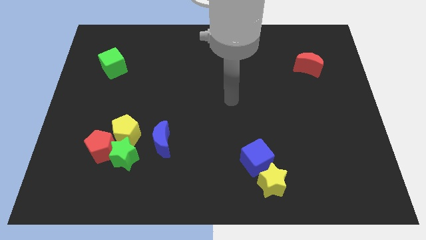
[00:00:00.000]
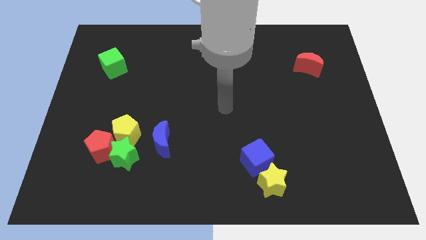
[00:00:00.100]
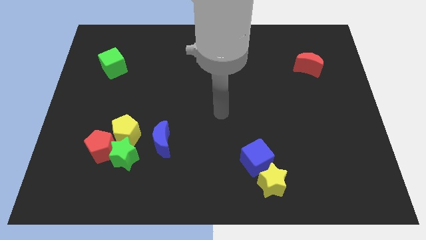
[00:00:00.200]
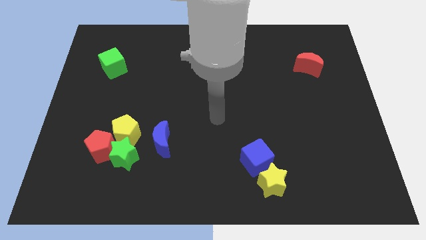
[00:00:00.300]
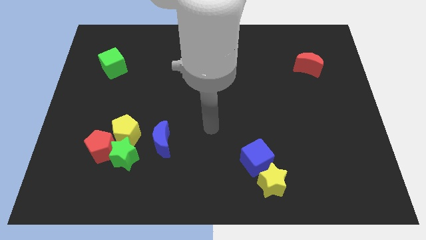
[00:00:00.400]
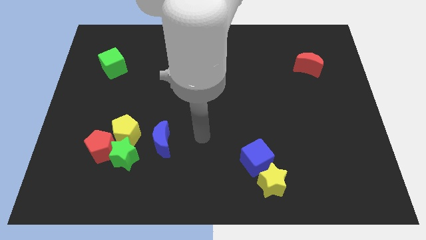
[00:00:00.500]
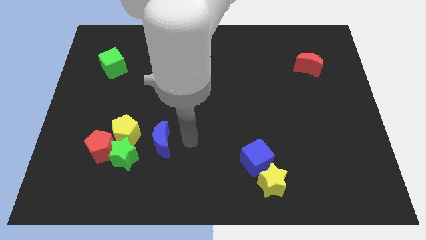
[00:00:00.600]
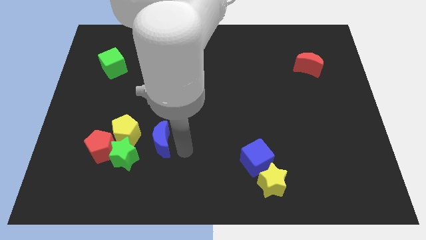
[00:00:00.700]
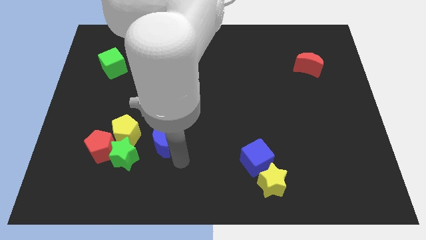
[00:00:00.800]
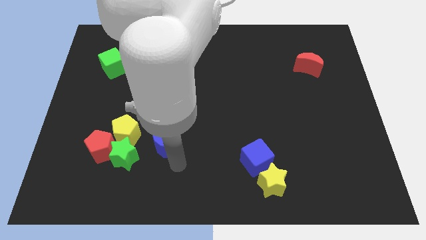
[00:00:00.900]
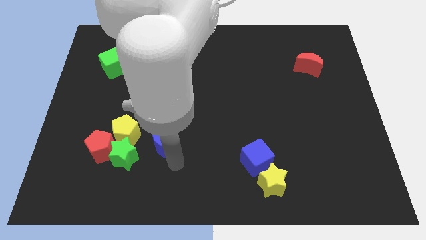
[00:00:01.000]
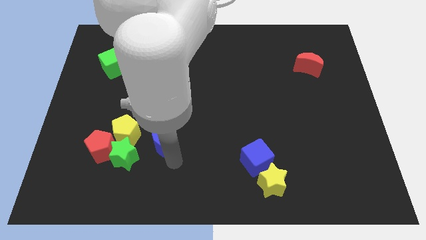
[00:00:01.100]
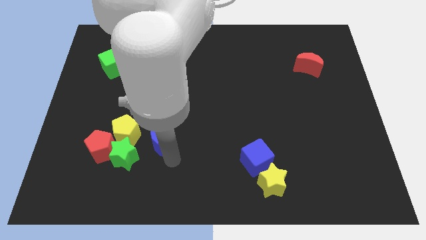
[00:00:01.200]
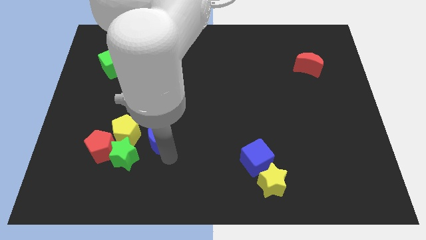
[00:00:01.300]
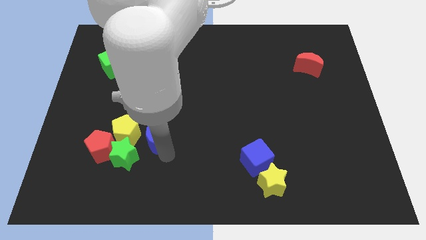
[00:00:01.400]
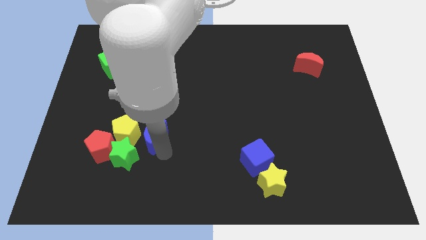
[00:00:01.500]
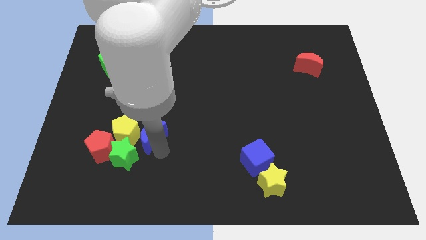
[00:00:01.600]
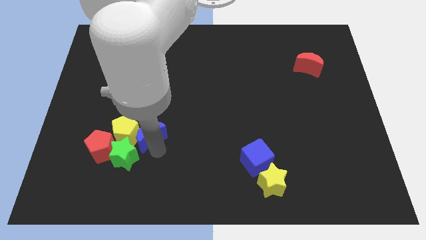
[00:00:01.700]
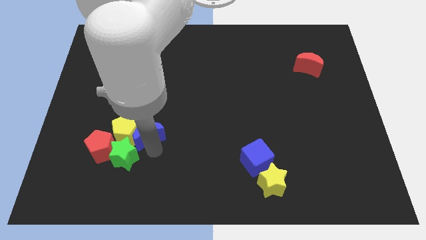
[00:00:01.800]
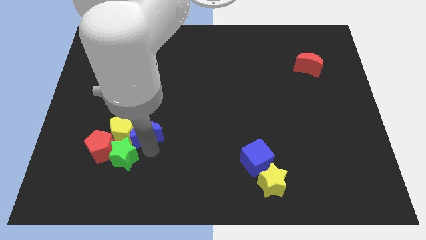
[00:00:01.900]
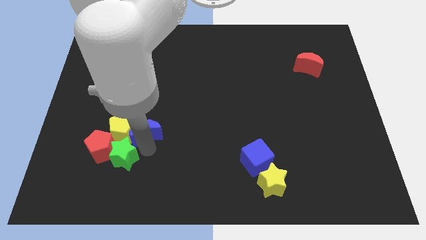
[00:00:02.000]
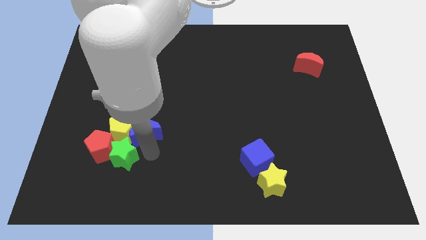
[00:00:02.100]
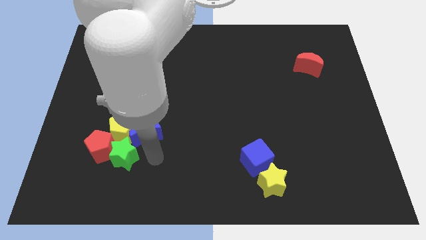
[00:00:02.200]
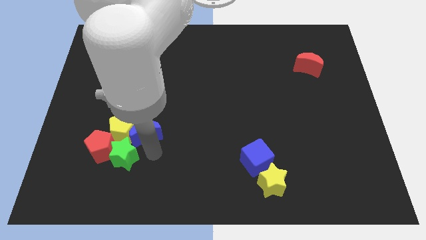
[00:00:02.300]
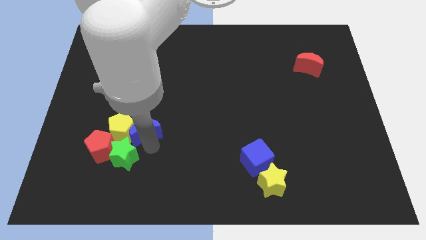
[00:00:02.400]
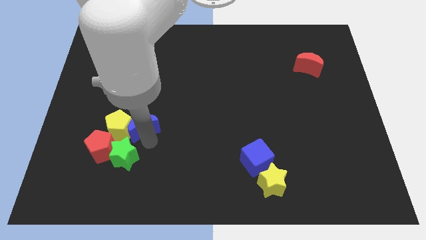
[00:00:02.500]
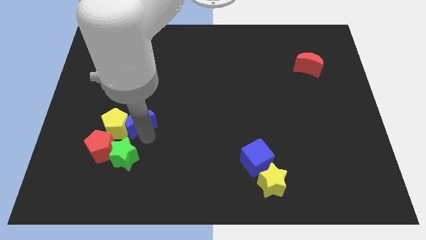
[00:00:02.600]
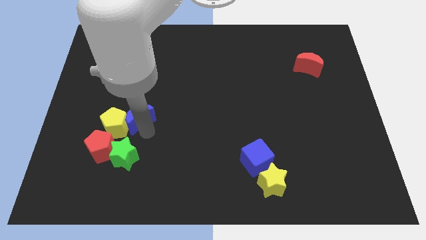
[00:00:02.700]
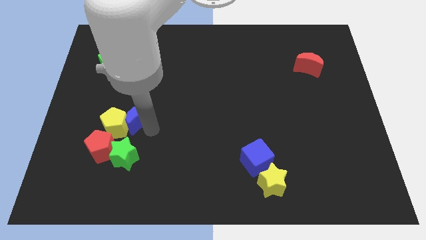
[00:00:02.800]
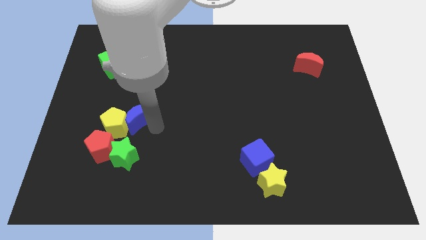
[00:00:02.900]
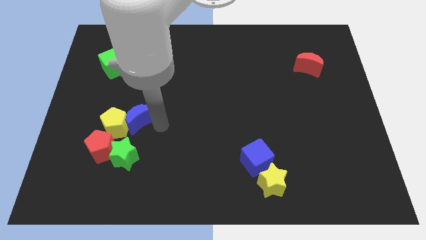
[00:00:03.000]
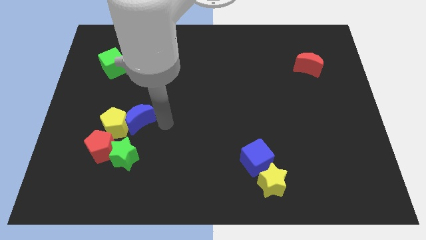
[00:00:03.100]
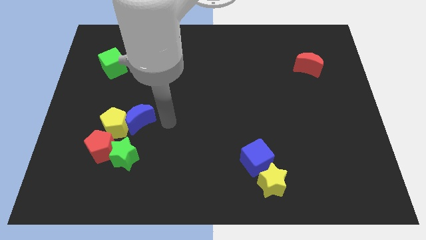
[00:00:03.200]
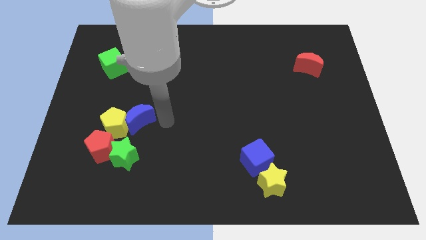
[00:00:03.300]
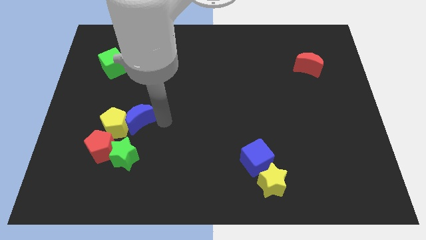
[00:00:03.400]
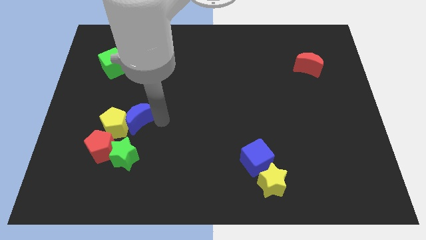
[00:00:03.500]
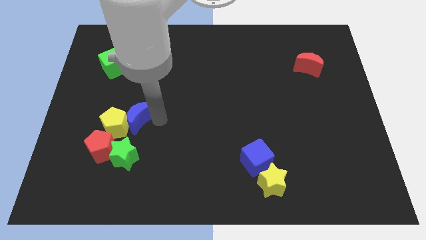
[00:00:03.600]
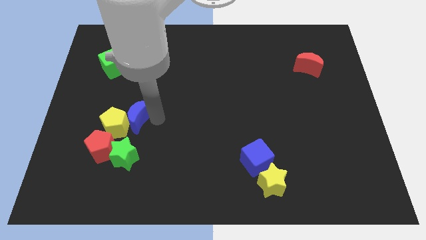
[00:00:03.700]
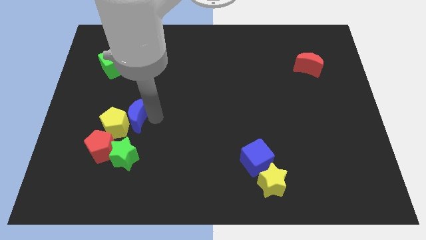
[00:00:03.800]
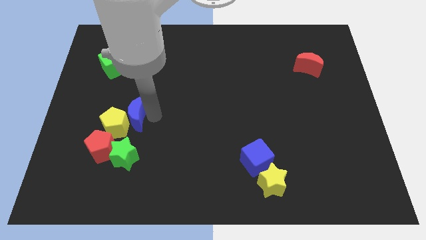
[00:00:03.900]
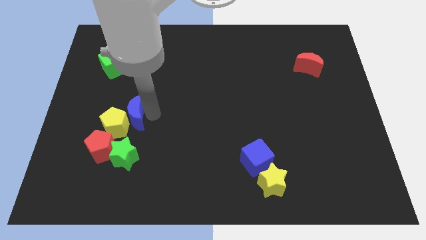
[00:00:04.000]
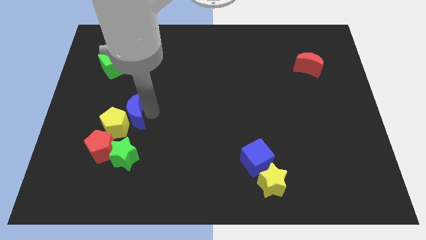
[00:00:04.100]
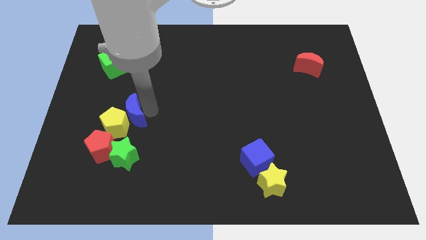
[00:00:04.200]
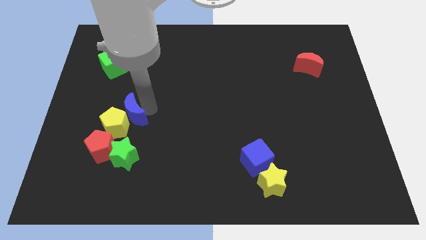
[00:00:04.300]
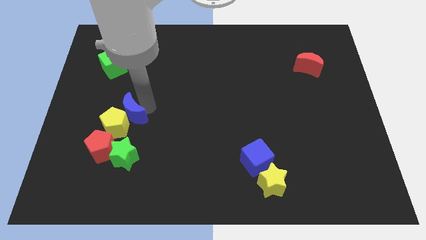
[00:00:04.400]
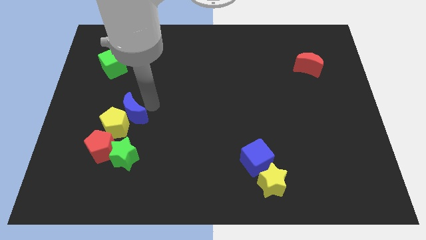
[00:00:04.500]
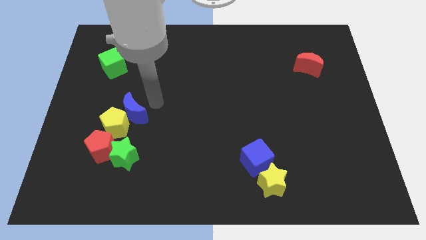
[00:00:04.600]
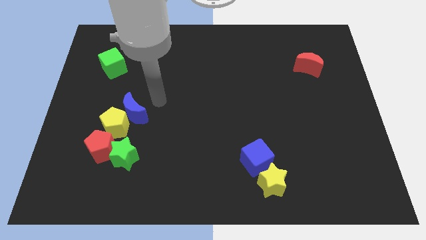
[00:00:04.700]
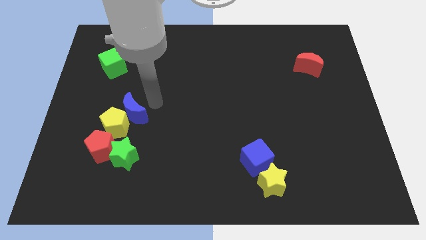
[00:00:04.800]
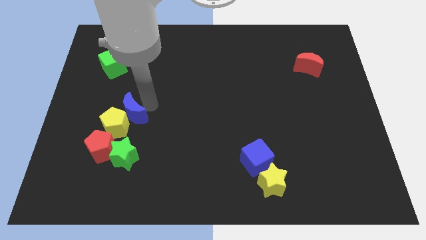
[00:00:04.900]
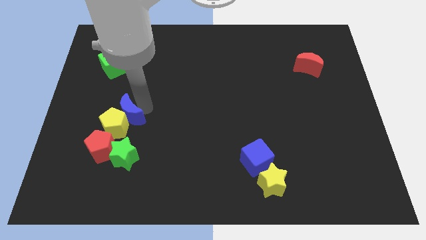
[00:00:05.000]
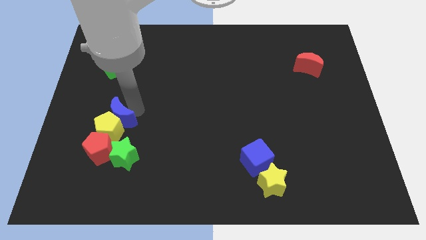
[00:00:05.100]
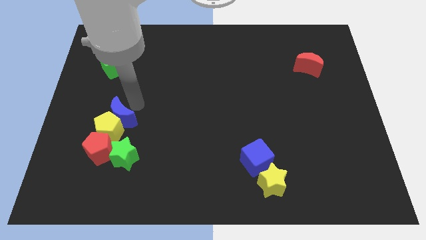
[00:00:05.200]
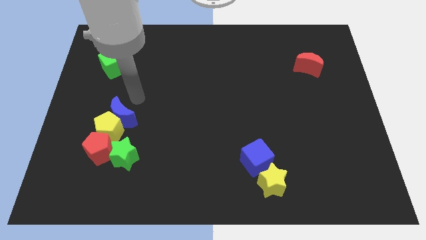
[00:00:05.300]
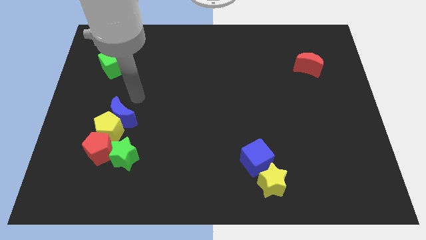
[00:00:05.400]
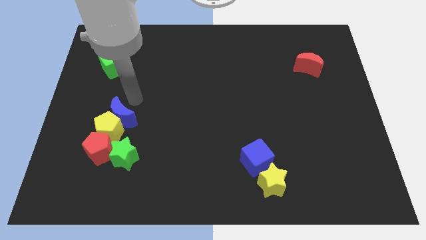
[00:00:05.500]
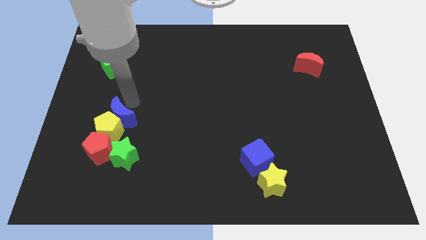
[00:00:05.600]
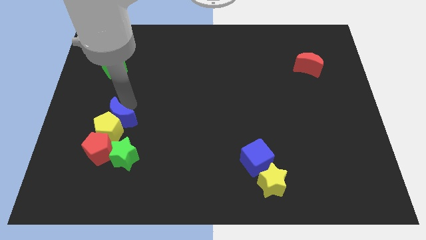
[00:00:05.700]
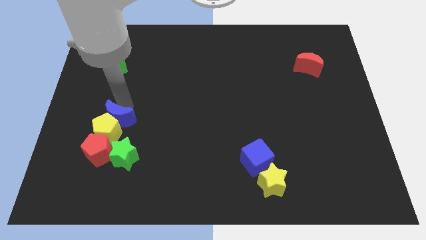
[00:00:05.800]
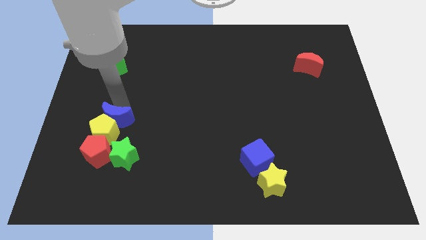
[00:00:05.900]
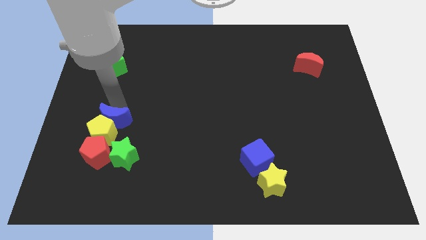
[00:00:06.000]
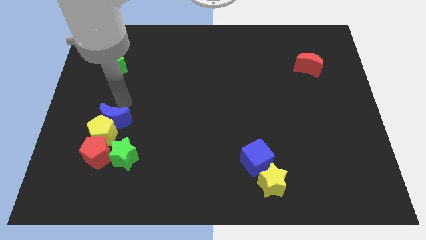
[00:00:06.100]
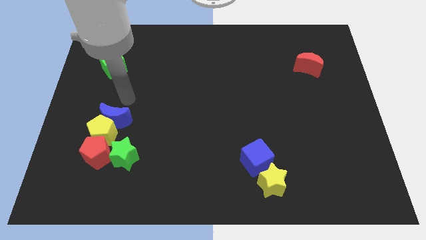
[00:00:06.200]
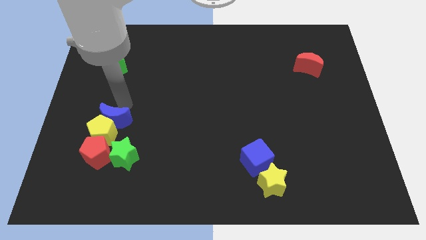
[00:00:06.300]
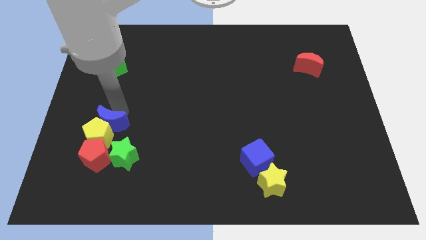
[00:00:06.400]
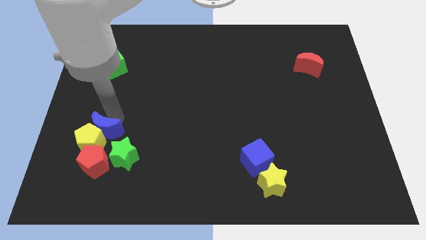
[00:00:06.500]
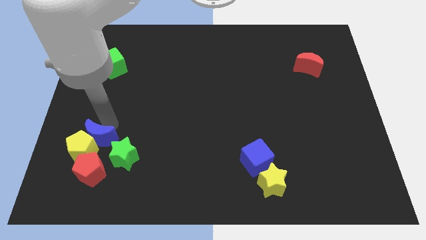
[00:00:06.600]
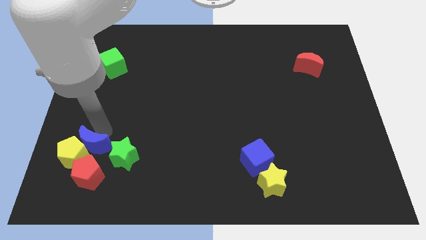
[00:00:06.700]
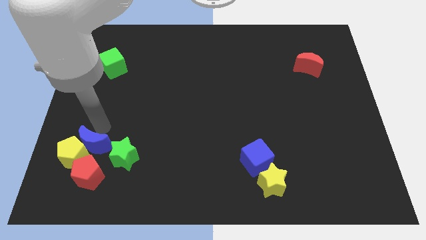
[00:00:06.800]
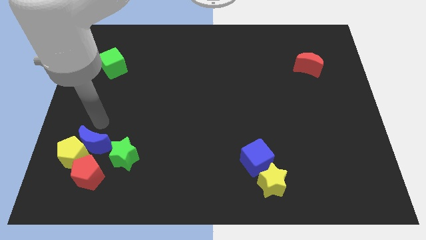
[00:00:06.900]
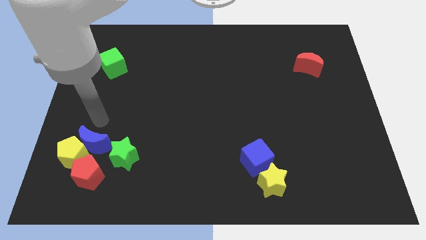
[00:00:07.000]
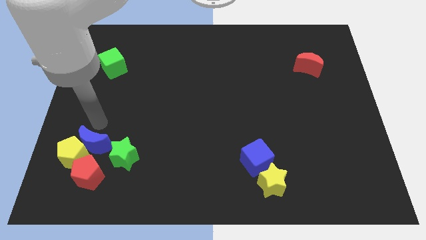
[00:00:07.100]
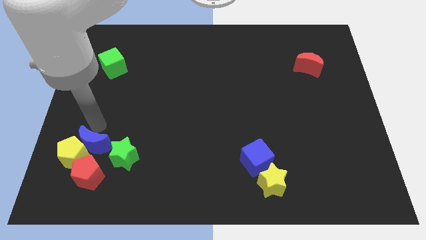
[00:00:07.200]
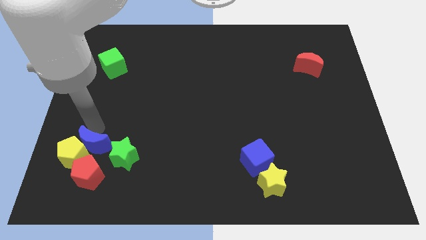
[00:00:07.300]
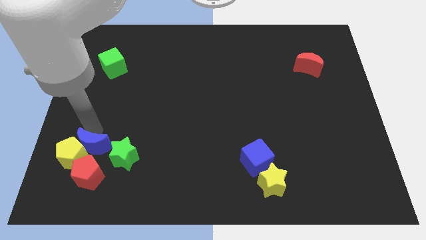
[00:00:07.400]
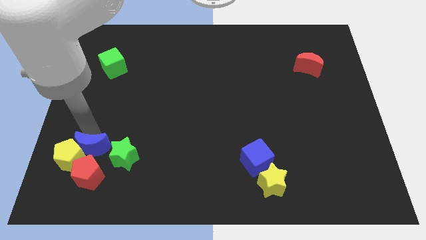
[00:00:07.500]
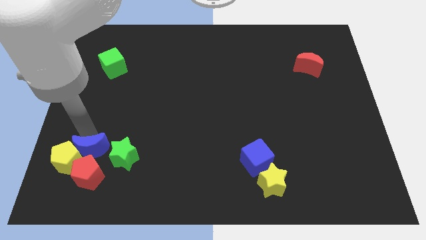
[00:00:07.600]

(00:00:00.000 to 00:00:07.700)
move the blue moon close to the red pentagon
